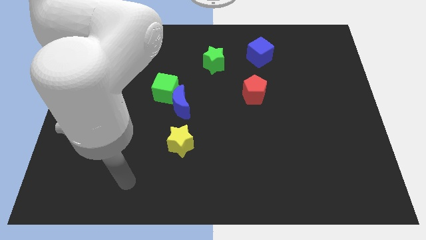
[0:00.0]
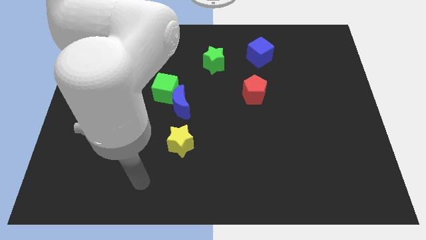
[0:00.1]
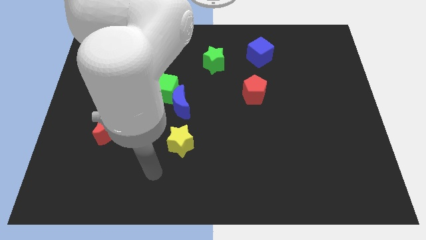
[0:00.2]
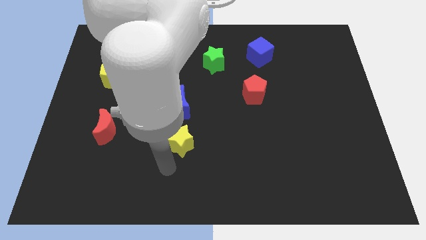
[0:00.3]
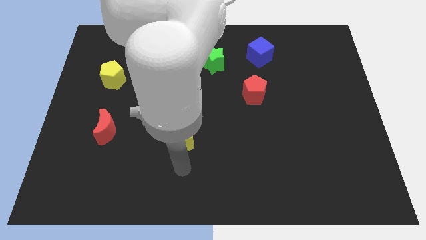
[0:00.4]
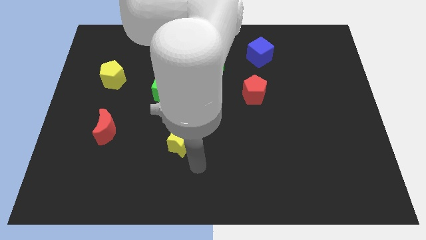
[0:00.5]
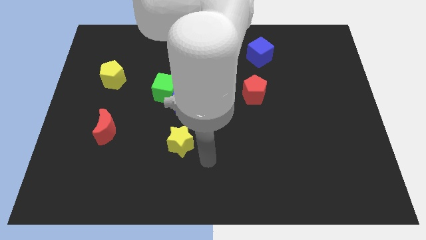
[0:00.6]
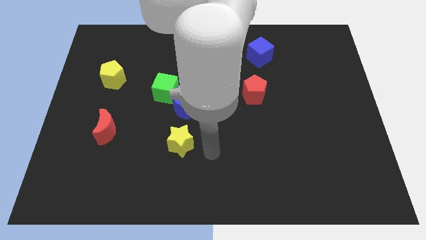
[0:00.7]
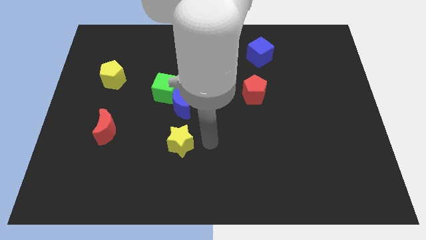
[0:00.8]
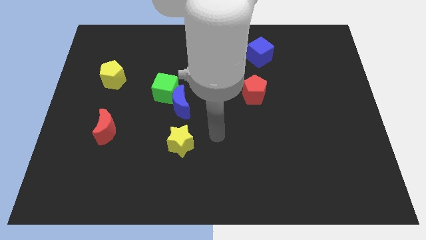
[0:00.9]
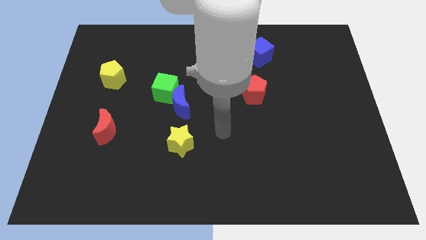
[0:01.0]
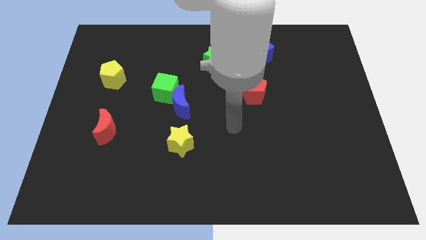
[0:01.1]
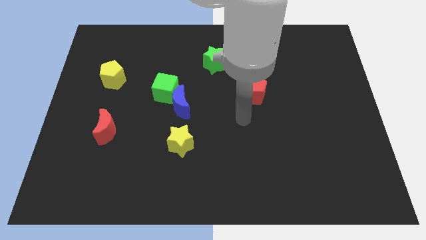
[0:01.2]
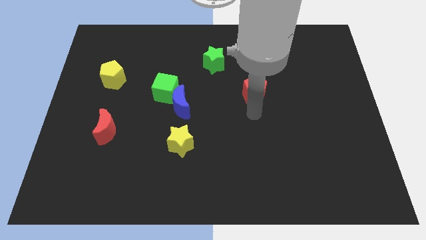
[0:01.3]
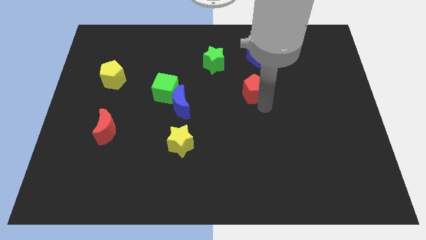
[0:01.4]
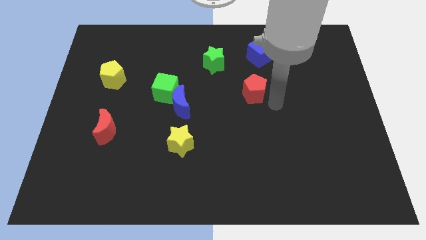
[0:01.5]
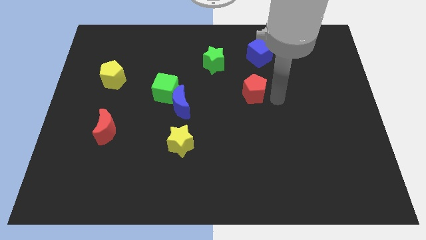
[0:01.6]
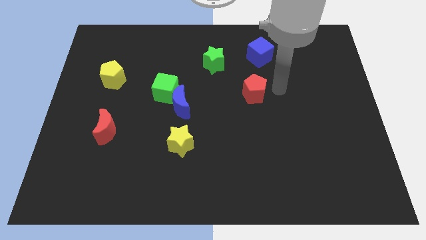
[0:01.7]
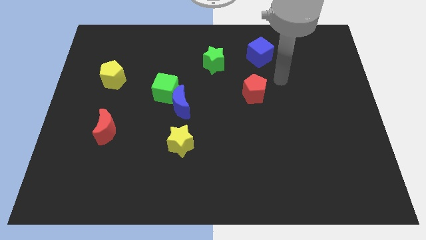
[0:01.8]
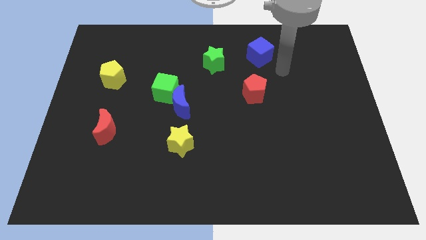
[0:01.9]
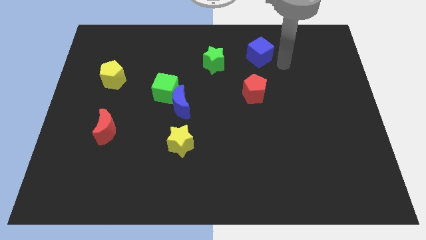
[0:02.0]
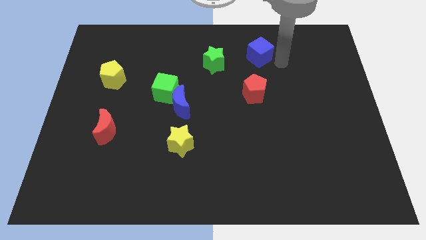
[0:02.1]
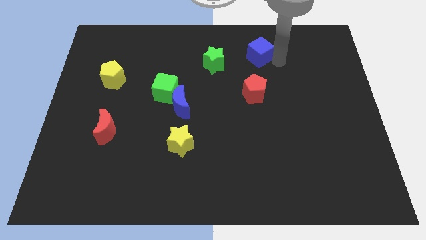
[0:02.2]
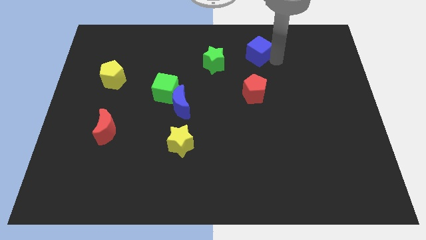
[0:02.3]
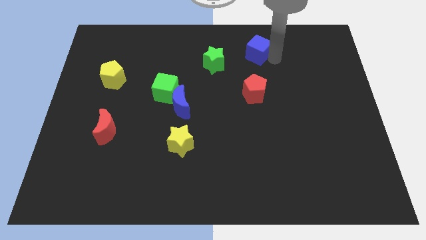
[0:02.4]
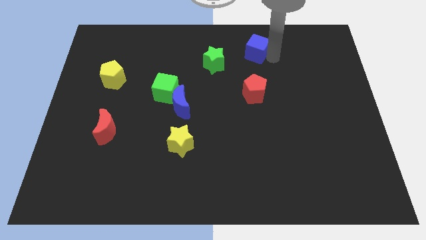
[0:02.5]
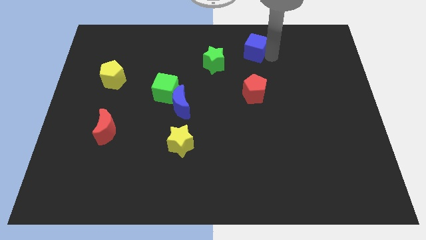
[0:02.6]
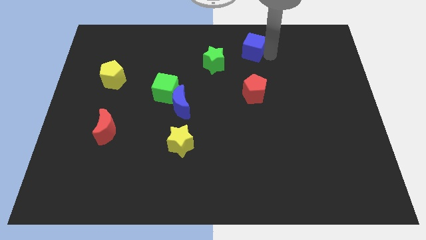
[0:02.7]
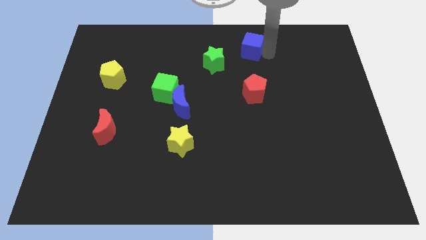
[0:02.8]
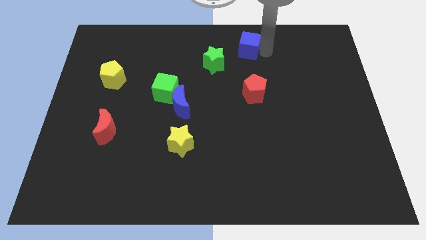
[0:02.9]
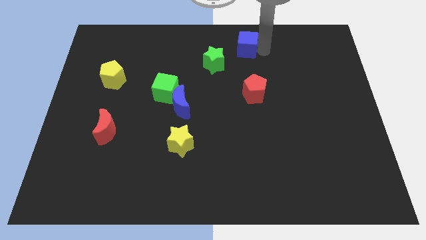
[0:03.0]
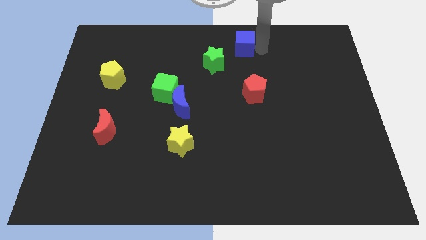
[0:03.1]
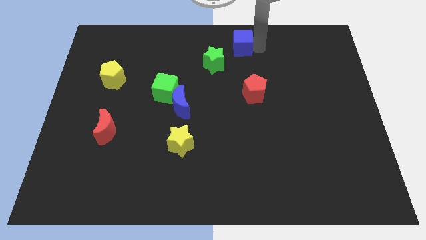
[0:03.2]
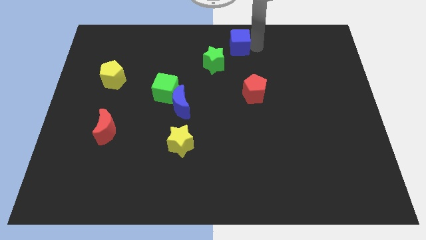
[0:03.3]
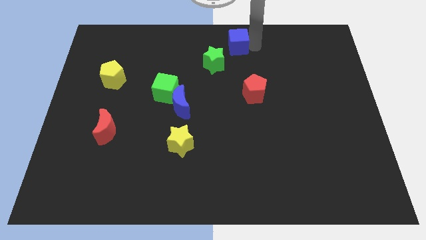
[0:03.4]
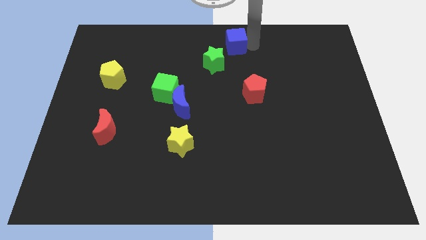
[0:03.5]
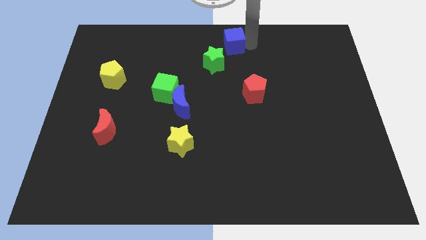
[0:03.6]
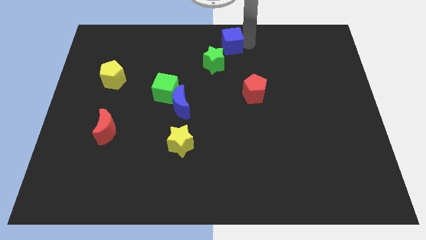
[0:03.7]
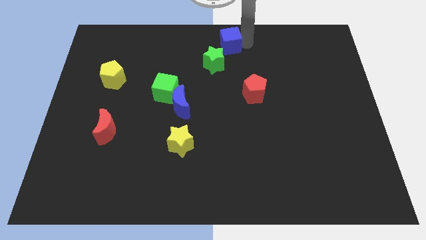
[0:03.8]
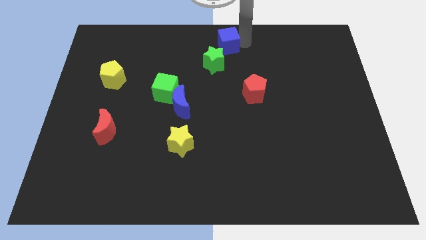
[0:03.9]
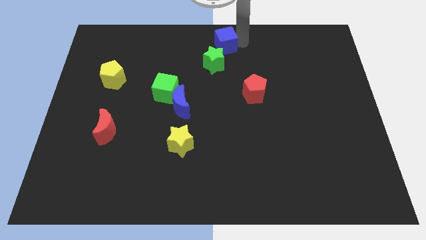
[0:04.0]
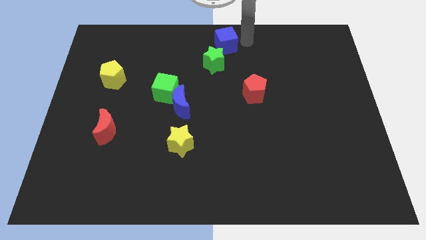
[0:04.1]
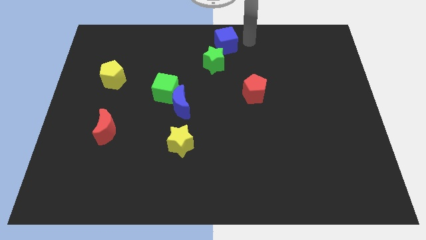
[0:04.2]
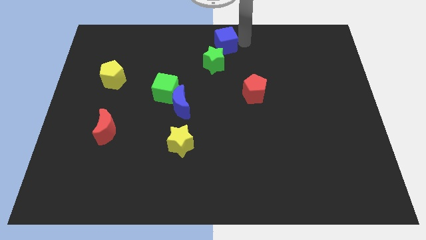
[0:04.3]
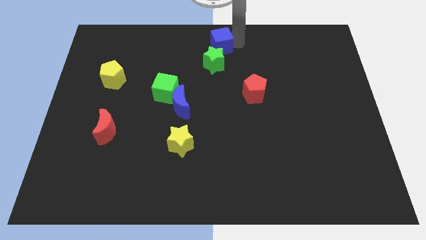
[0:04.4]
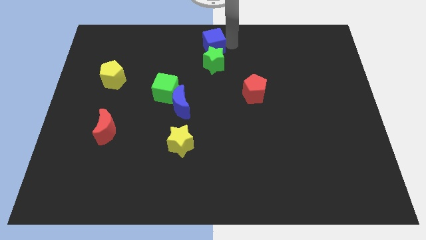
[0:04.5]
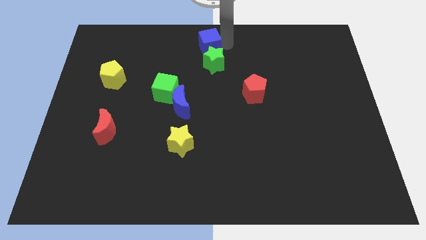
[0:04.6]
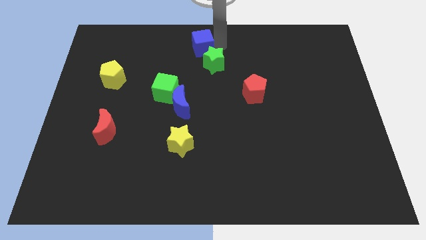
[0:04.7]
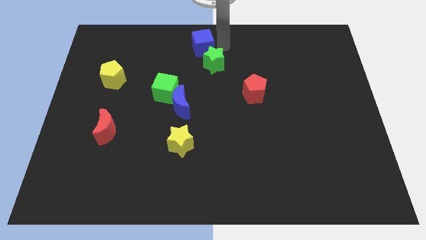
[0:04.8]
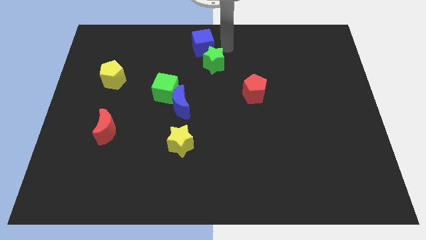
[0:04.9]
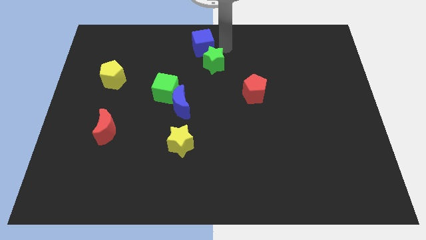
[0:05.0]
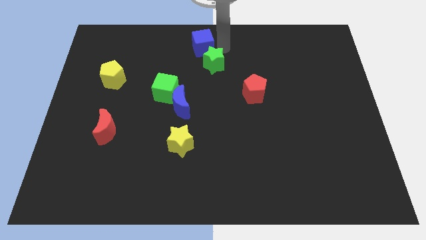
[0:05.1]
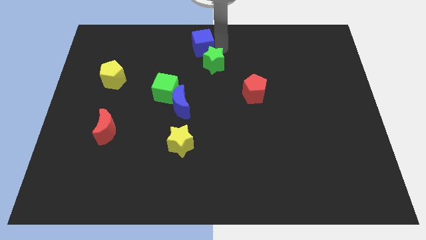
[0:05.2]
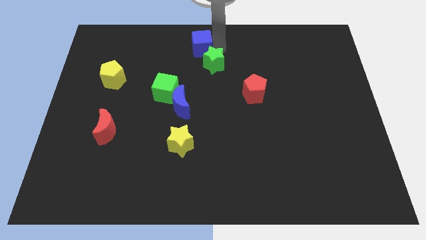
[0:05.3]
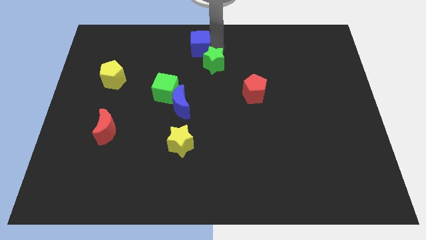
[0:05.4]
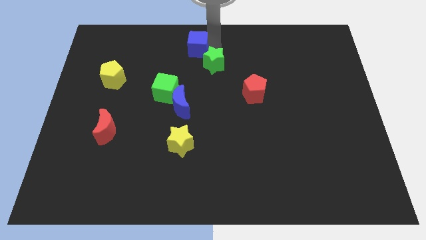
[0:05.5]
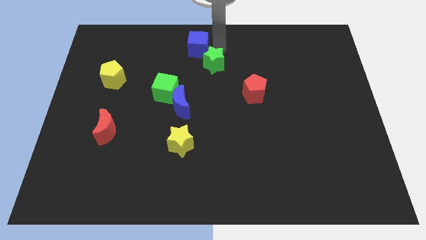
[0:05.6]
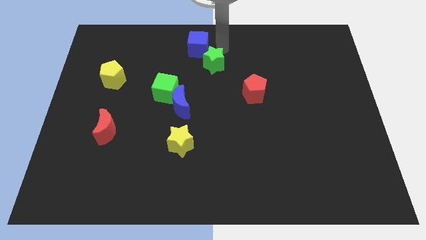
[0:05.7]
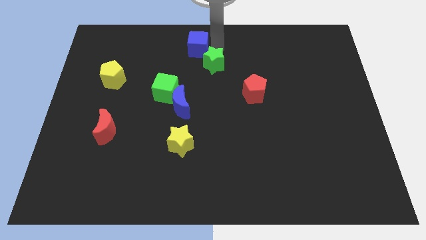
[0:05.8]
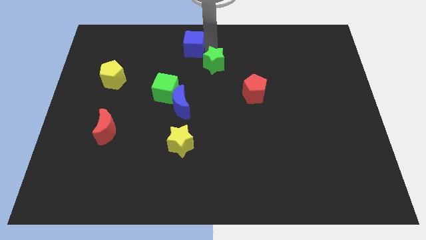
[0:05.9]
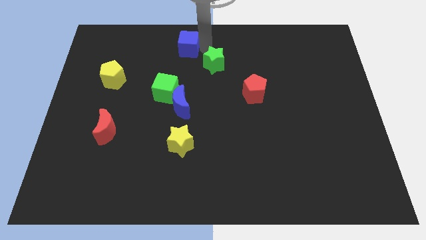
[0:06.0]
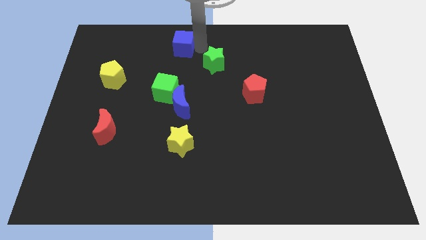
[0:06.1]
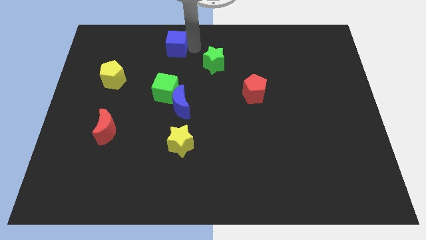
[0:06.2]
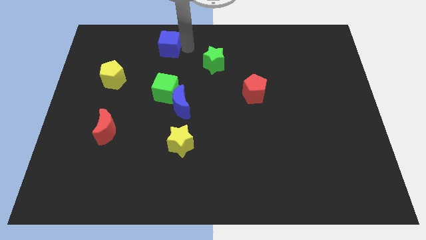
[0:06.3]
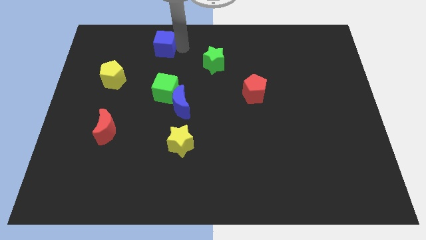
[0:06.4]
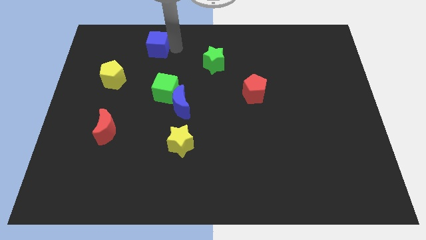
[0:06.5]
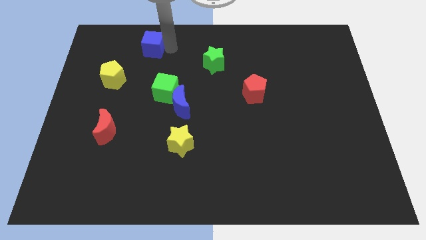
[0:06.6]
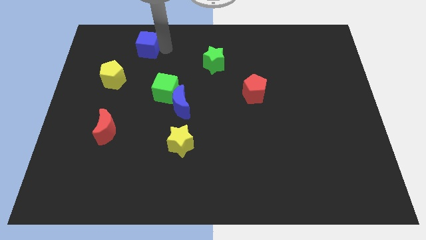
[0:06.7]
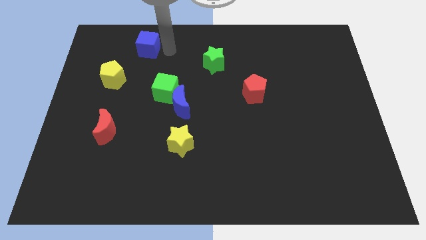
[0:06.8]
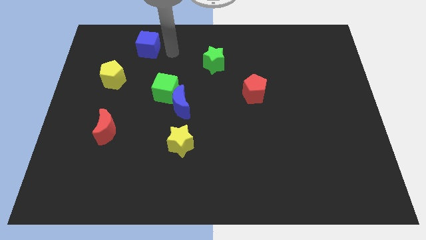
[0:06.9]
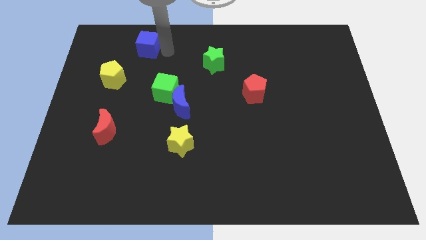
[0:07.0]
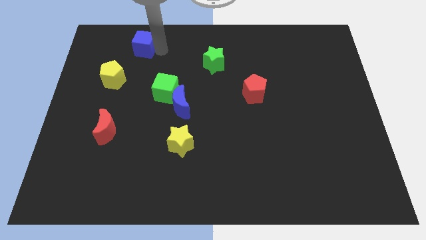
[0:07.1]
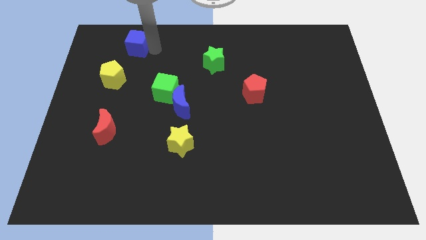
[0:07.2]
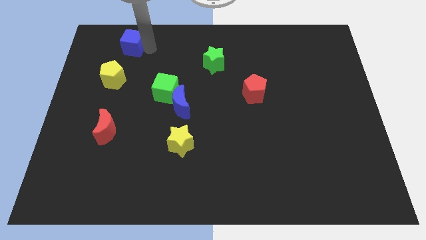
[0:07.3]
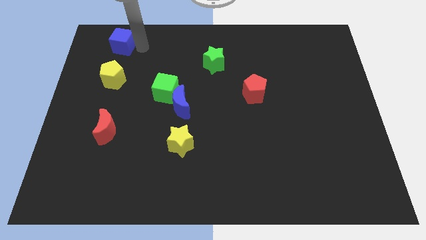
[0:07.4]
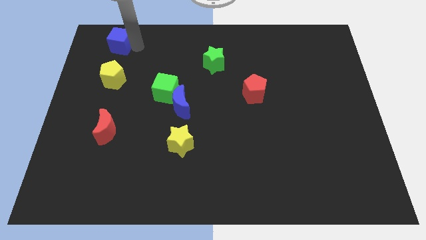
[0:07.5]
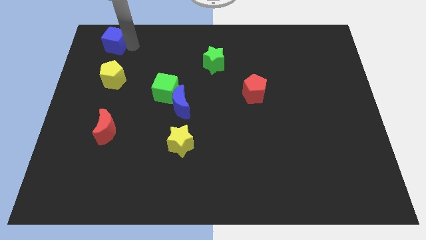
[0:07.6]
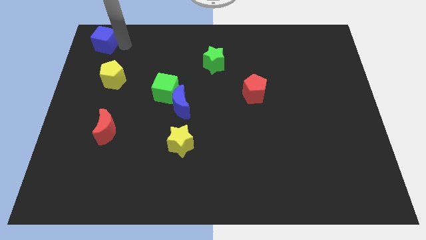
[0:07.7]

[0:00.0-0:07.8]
put the blue cube to the upper left corner
